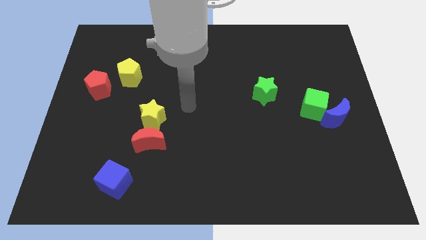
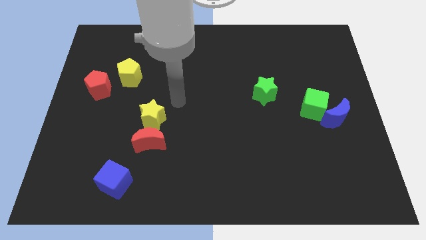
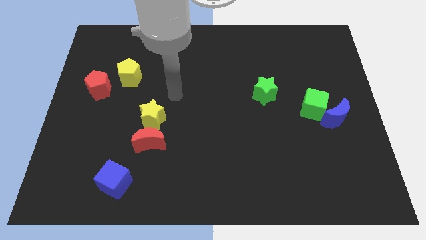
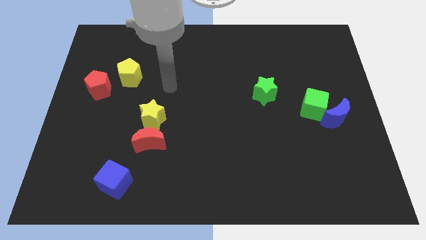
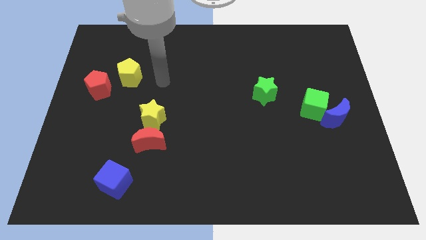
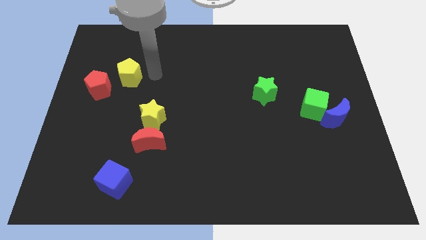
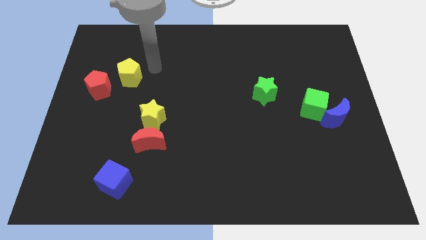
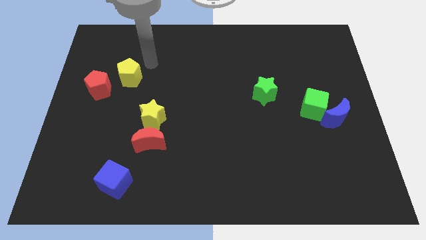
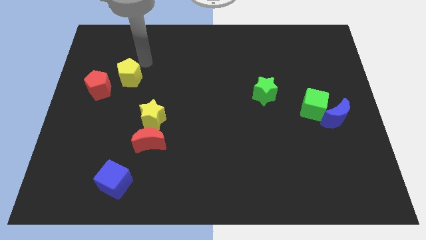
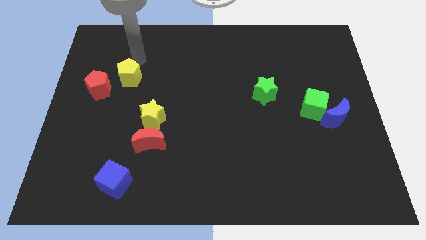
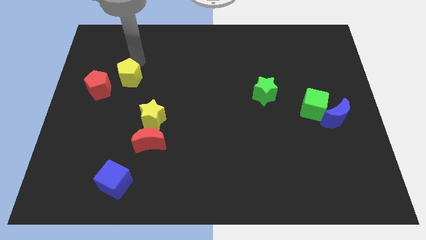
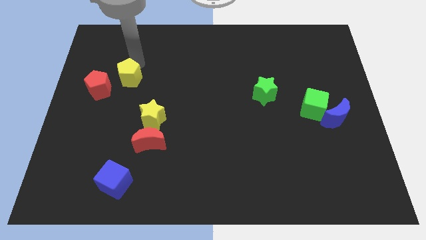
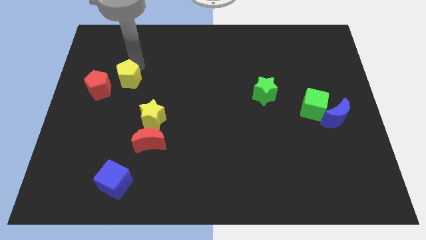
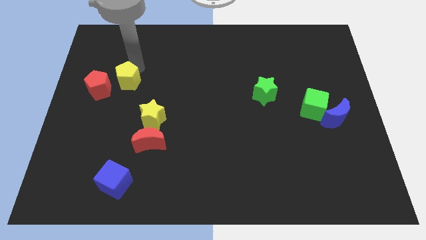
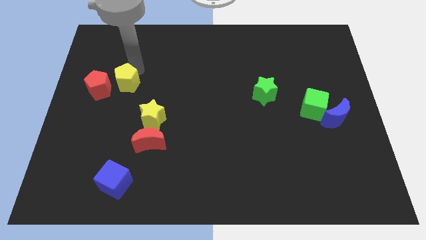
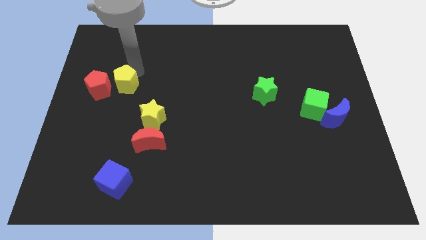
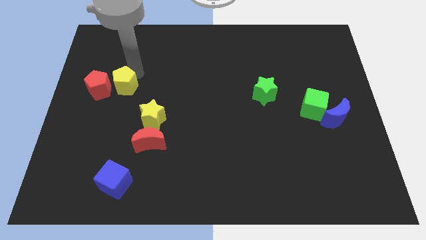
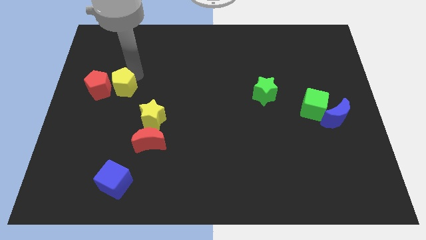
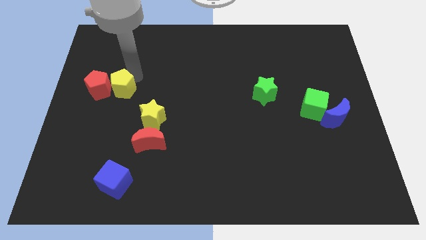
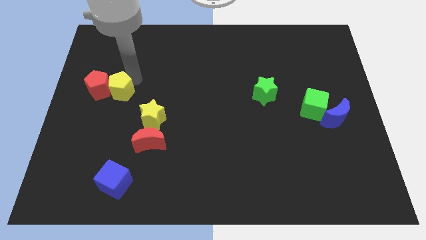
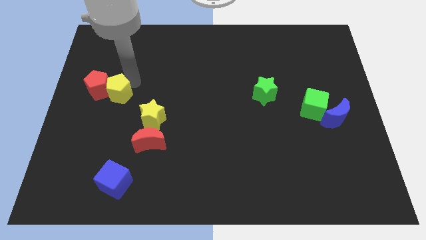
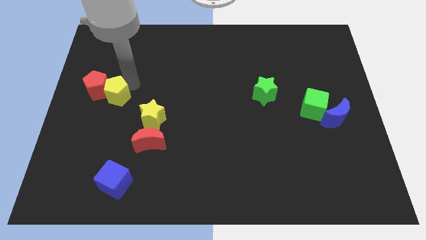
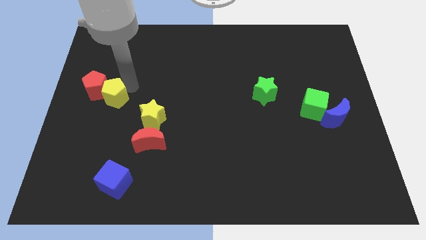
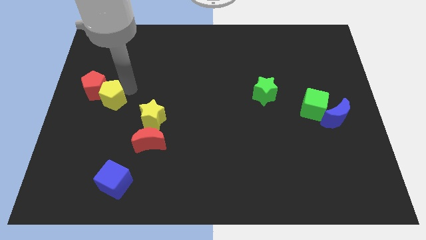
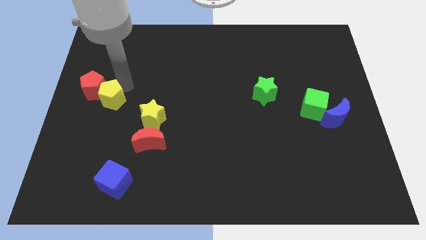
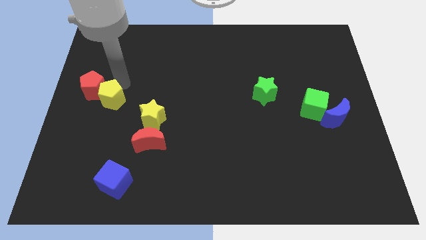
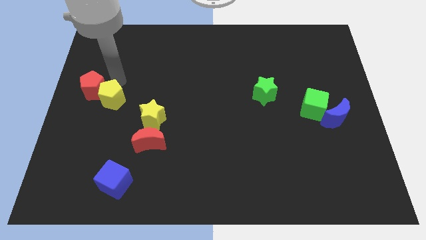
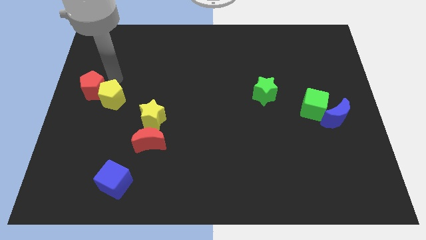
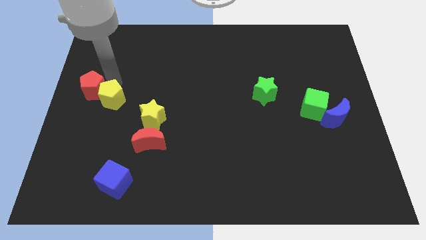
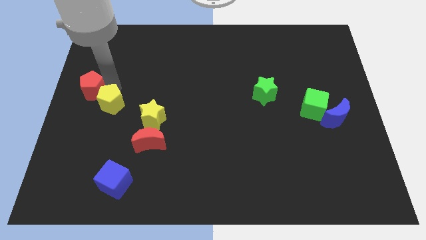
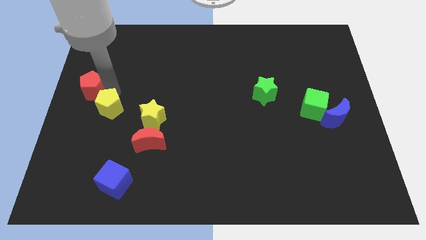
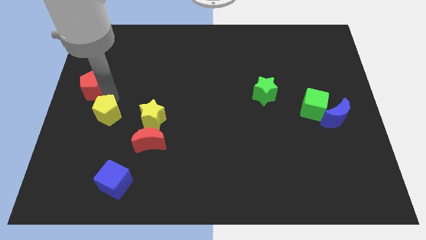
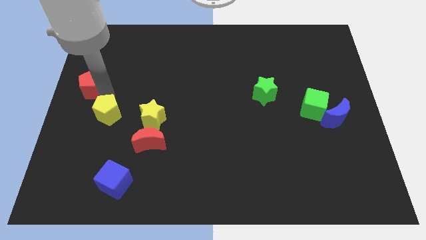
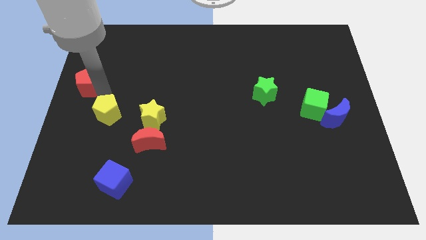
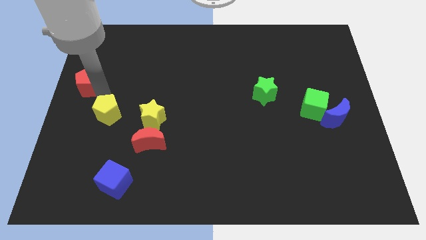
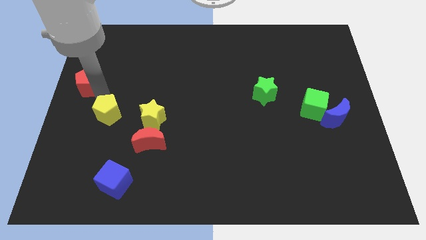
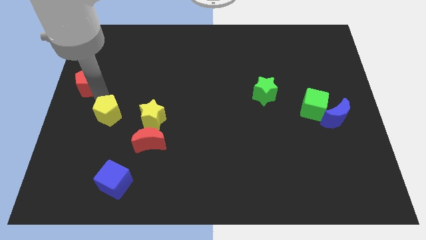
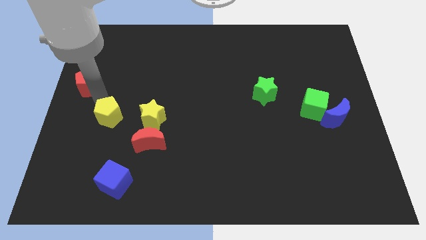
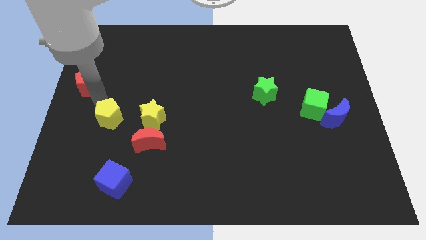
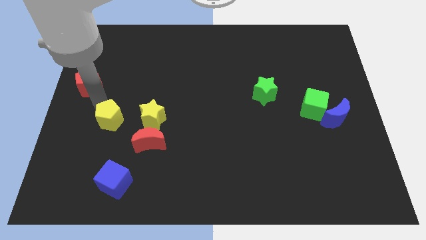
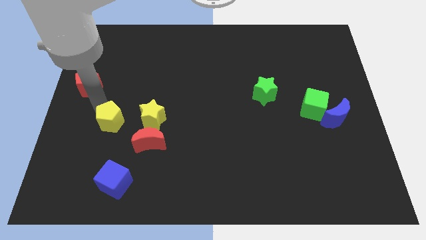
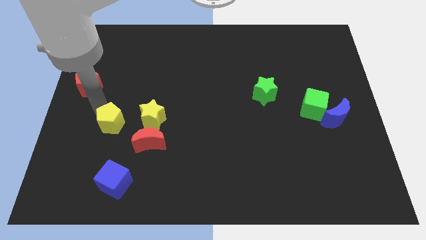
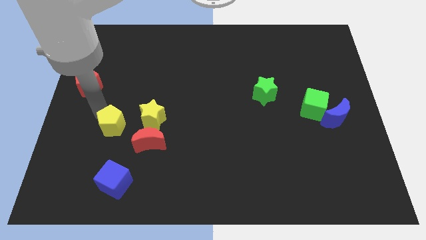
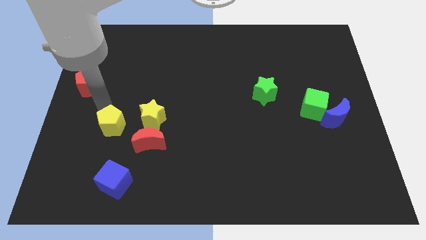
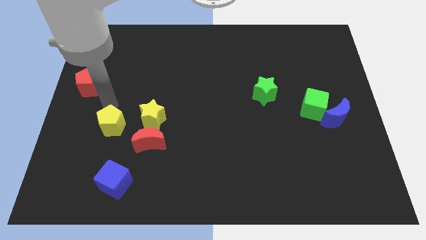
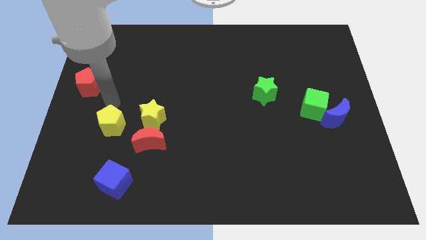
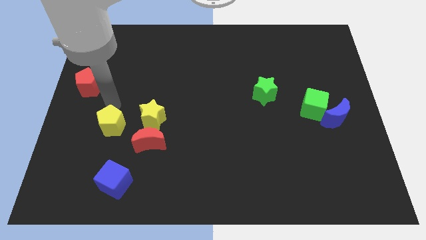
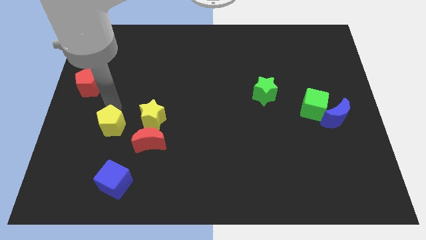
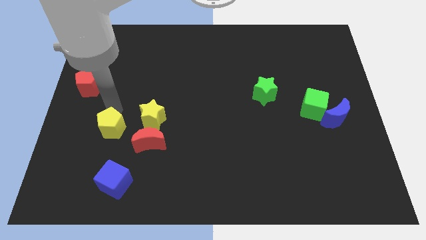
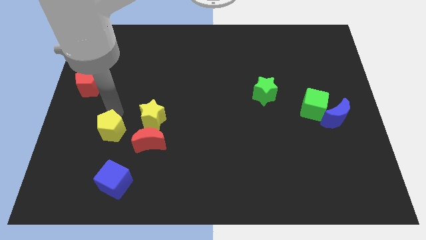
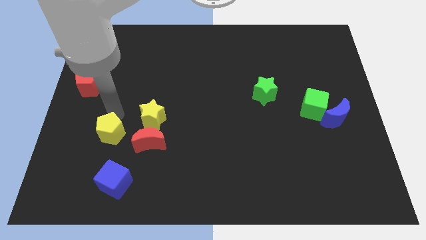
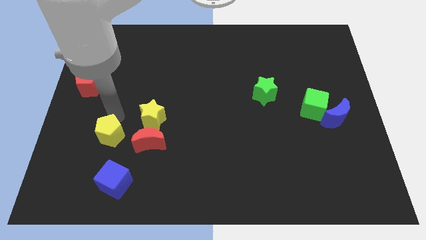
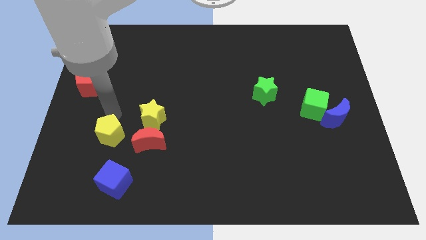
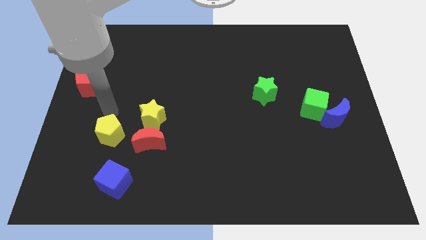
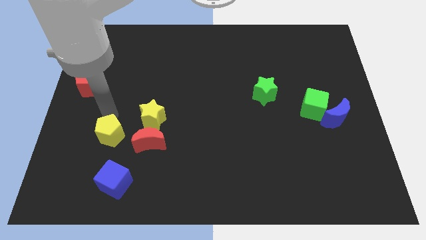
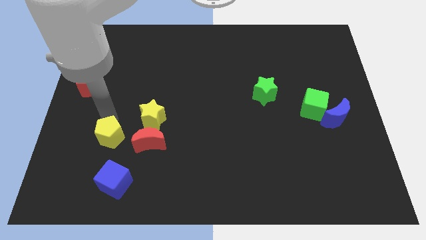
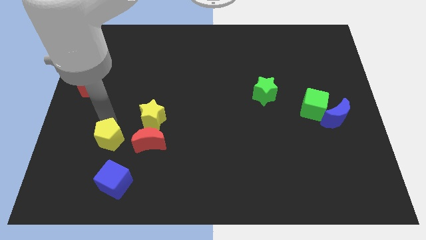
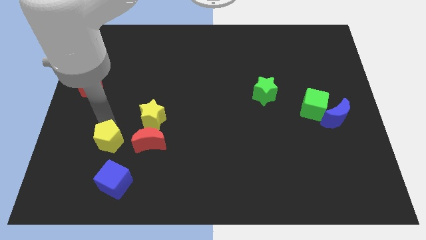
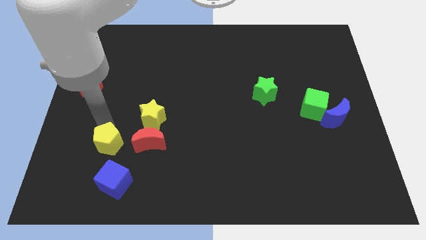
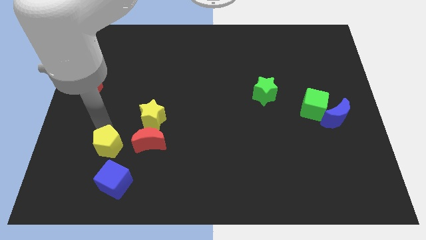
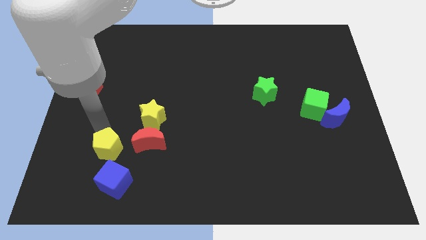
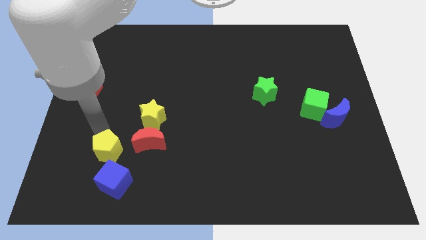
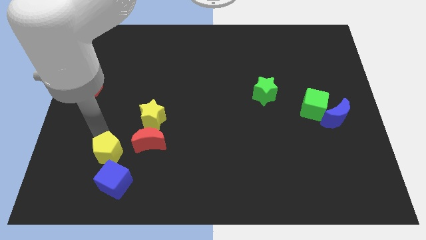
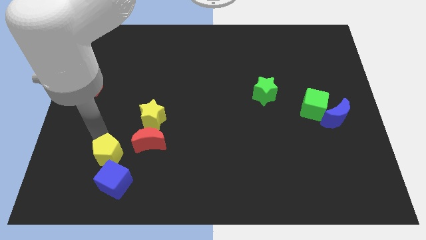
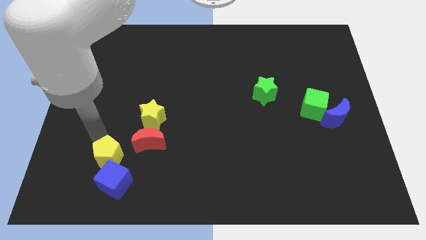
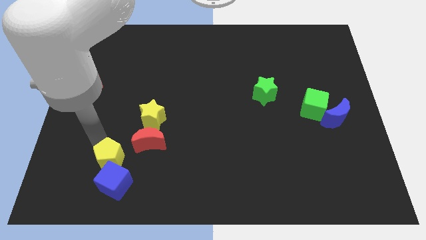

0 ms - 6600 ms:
slide the yellow pentagon towards the blue cube

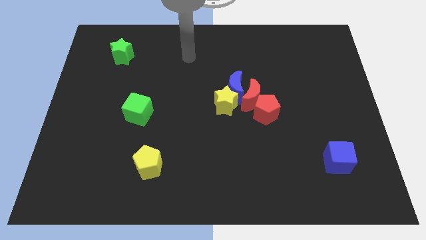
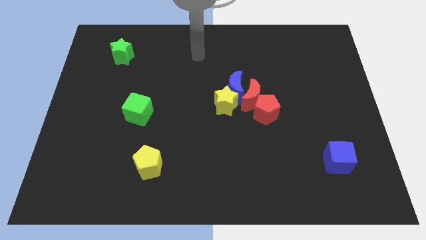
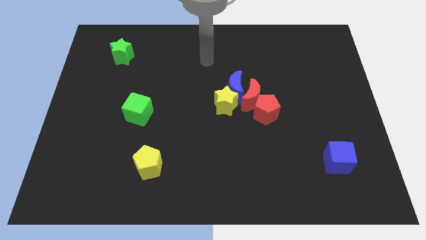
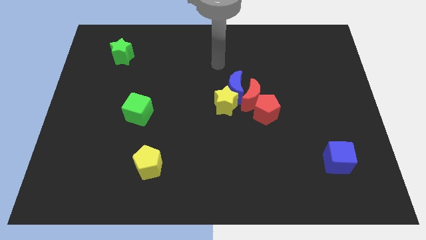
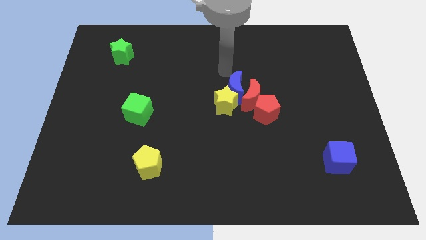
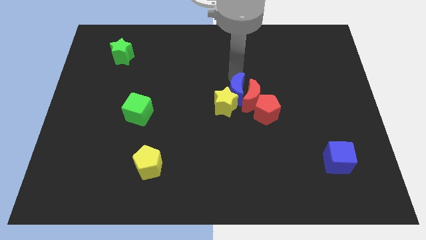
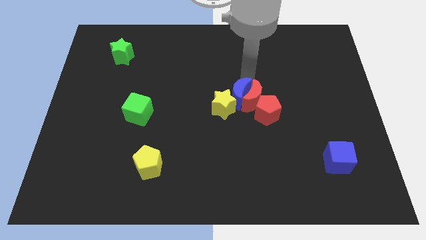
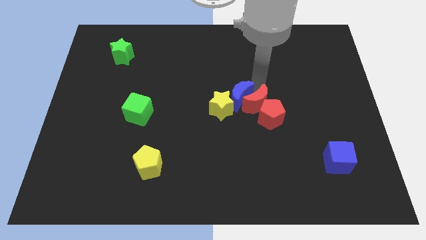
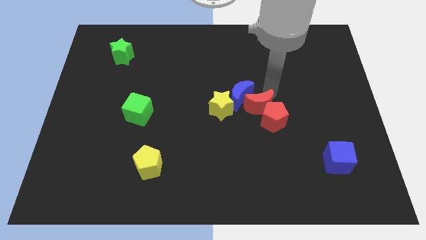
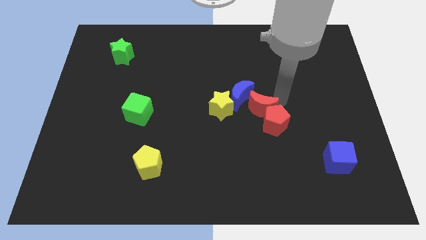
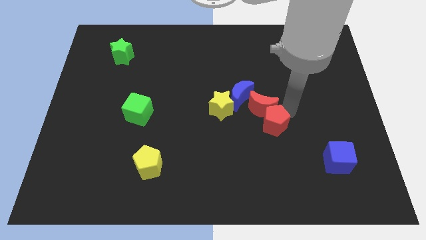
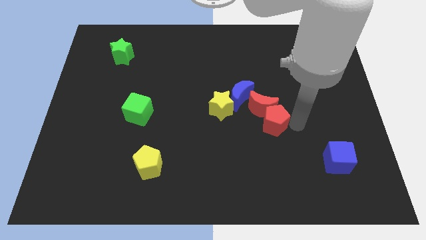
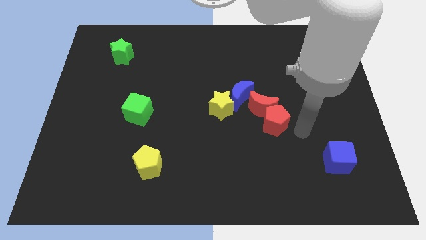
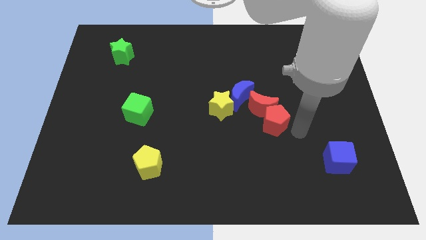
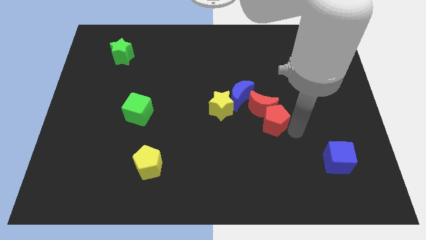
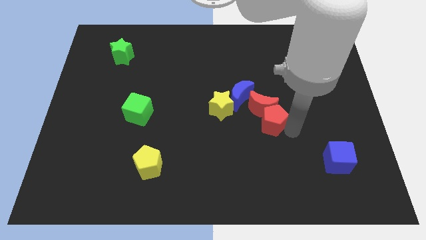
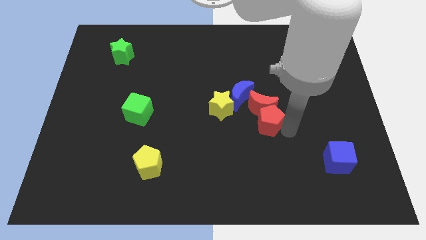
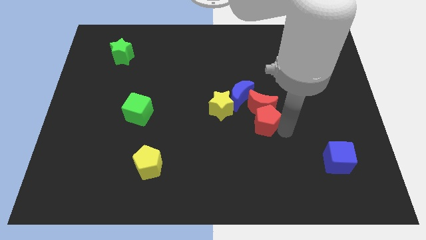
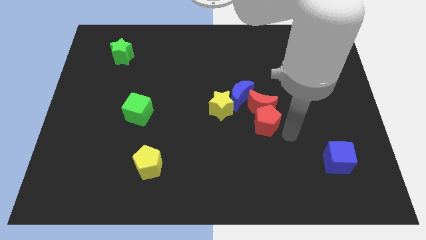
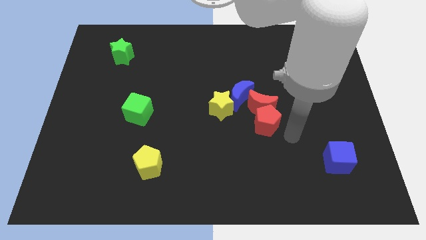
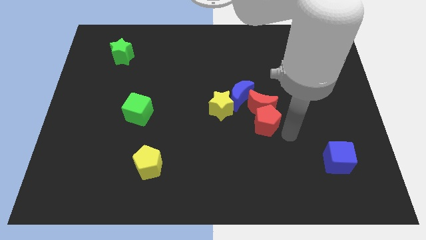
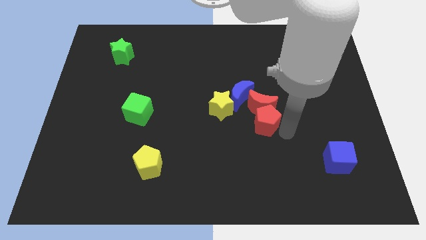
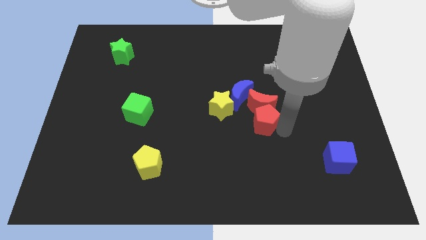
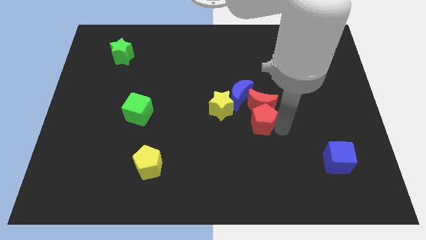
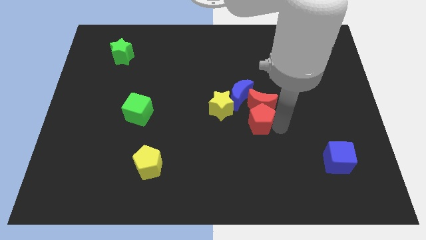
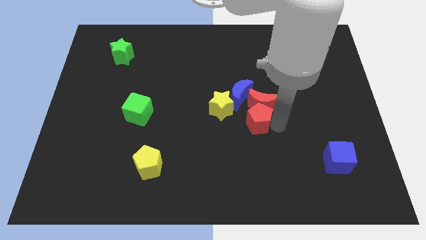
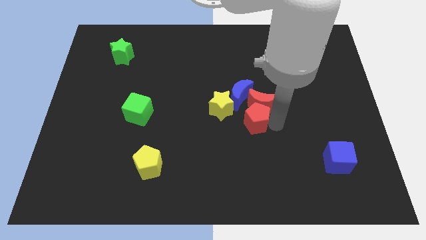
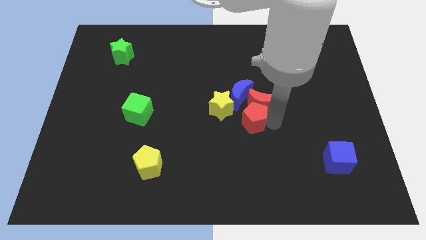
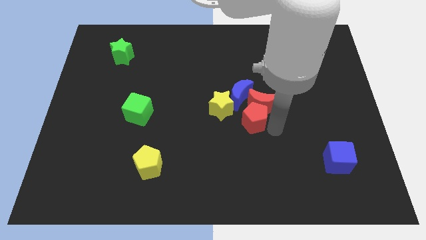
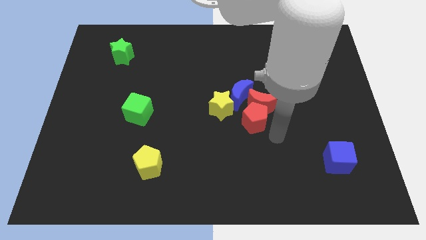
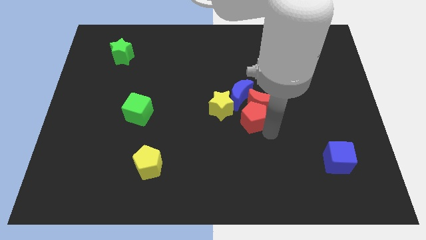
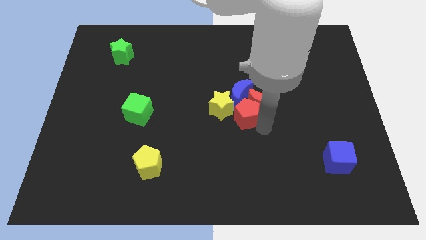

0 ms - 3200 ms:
push the red pentagon close to the yellow star
